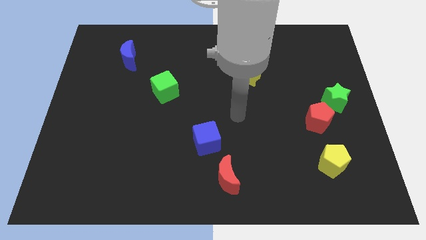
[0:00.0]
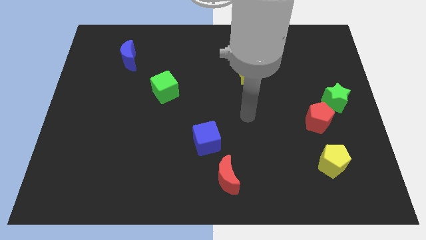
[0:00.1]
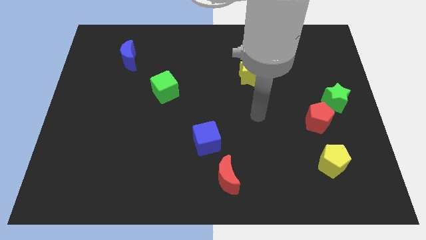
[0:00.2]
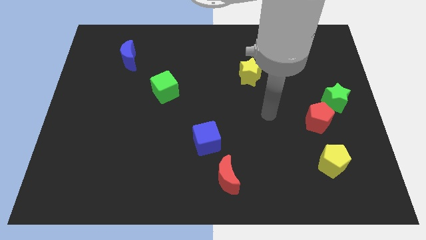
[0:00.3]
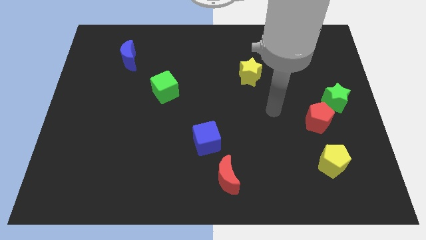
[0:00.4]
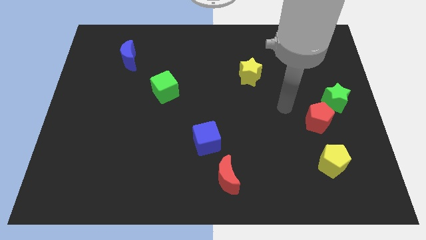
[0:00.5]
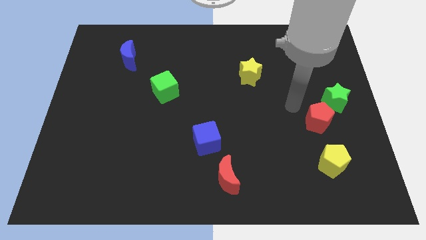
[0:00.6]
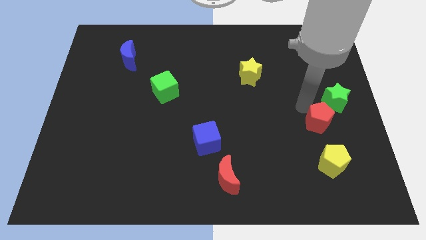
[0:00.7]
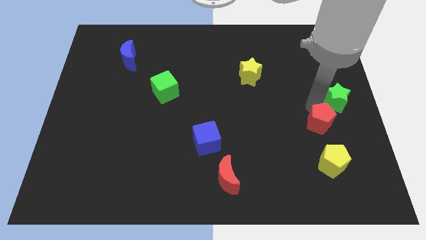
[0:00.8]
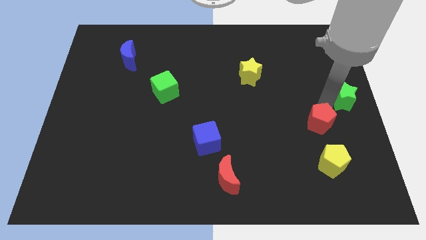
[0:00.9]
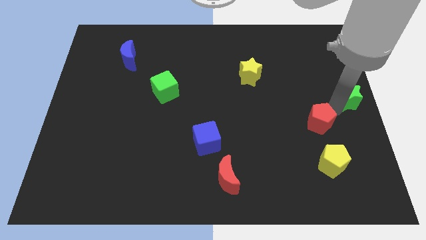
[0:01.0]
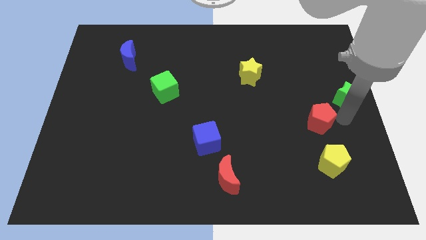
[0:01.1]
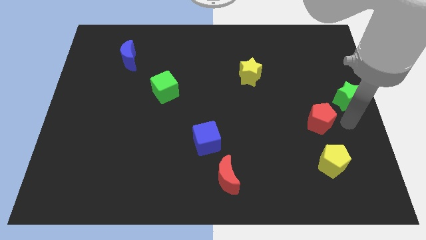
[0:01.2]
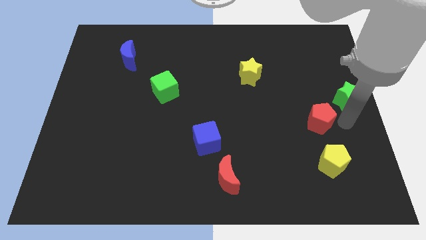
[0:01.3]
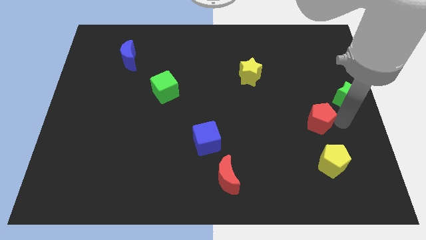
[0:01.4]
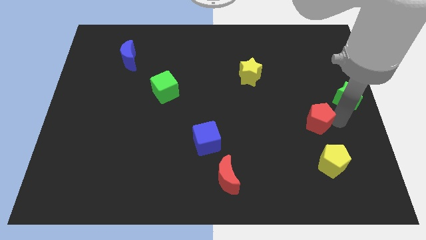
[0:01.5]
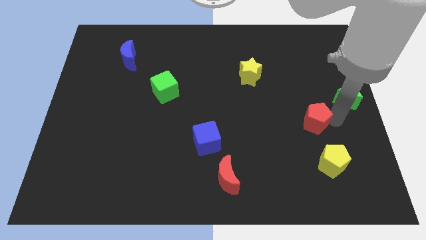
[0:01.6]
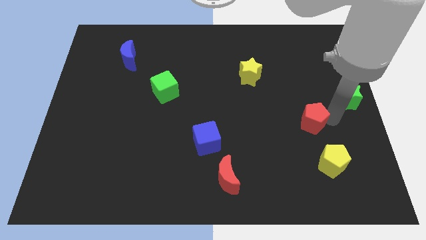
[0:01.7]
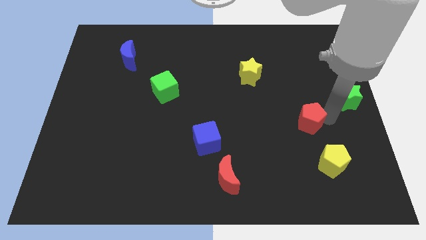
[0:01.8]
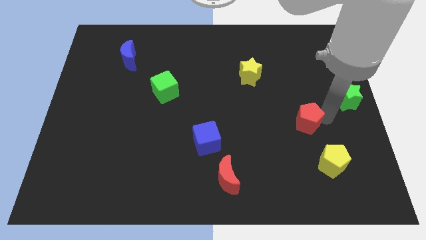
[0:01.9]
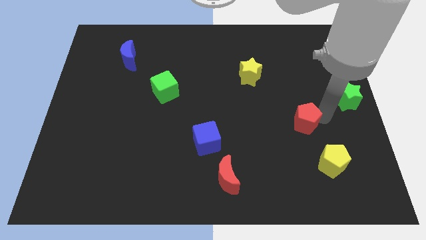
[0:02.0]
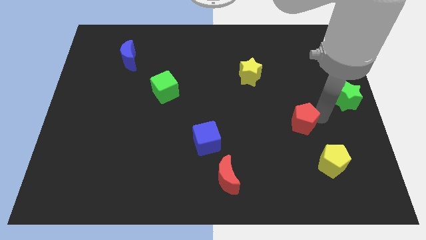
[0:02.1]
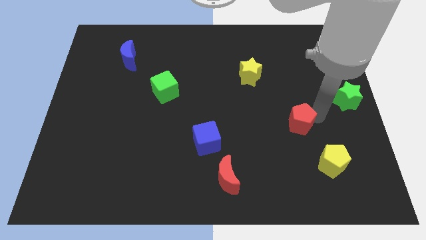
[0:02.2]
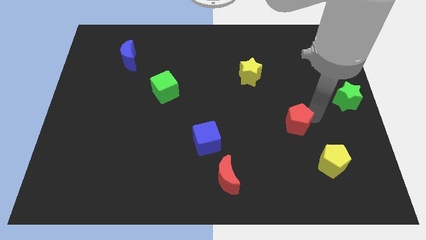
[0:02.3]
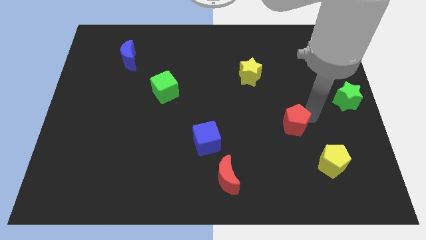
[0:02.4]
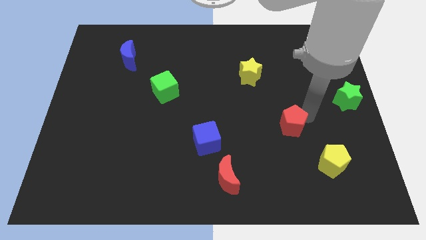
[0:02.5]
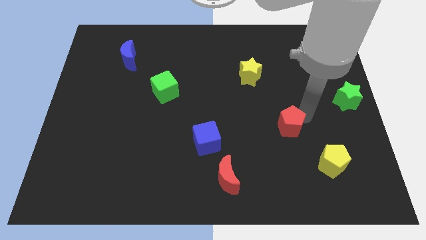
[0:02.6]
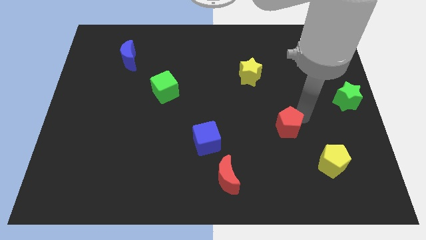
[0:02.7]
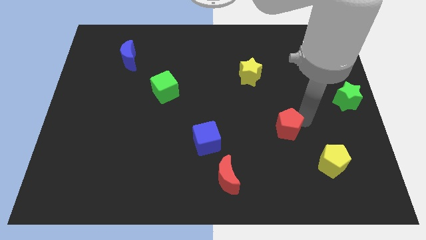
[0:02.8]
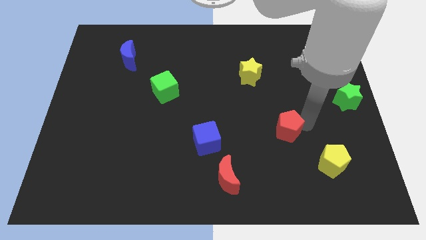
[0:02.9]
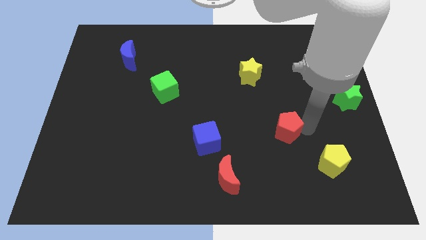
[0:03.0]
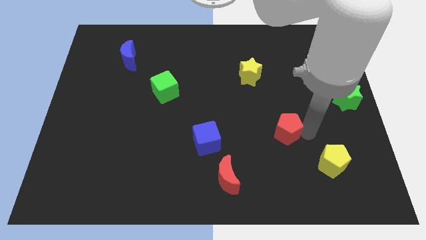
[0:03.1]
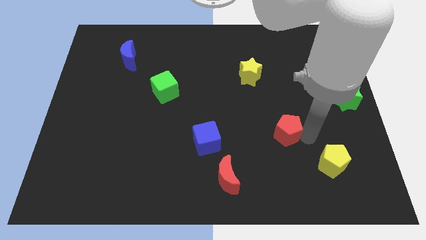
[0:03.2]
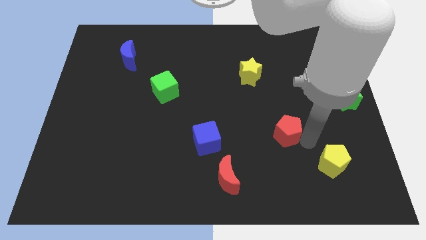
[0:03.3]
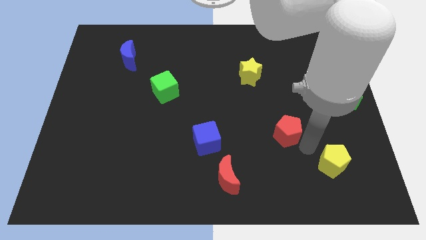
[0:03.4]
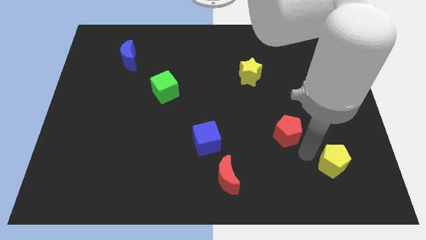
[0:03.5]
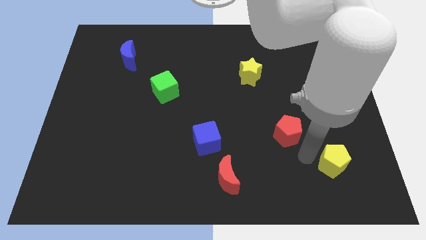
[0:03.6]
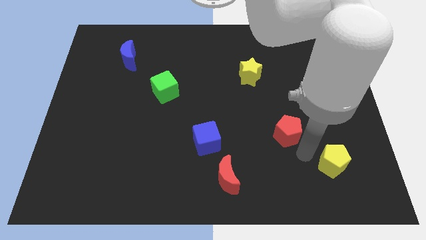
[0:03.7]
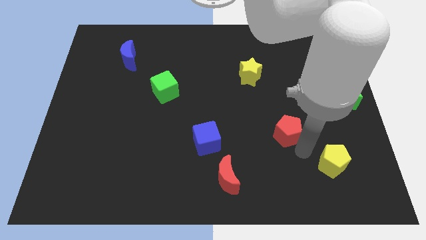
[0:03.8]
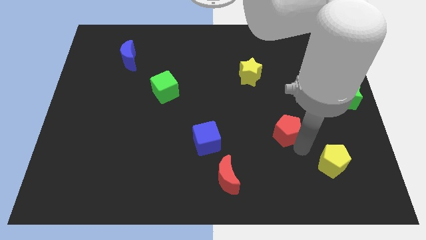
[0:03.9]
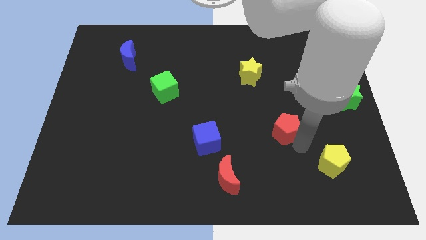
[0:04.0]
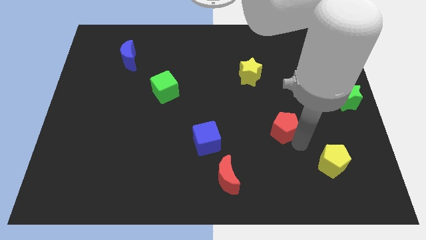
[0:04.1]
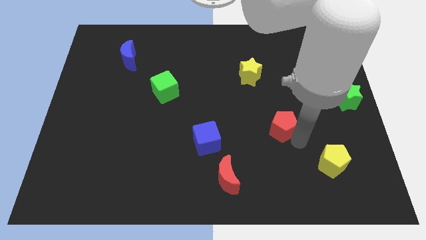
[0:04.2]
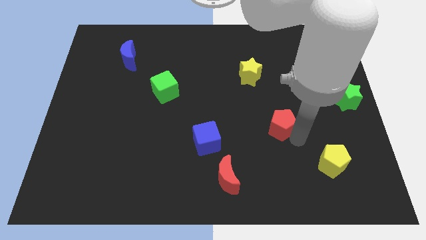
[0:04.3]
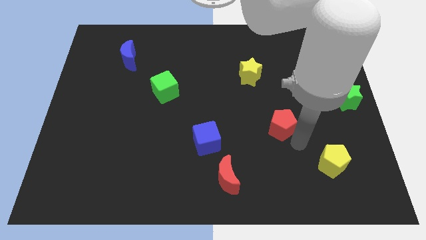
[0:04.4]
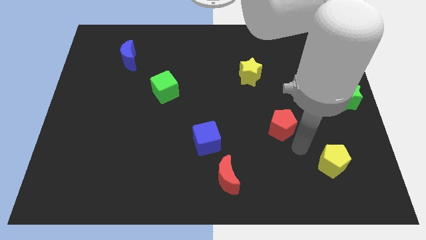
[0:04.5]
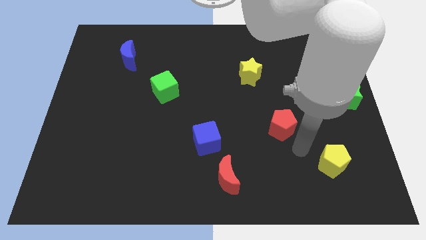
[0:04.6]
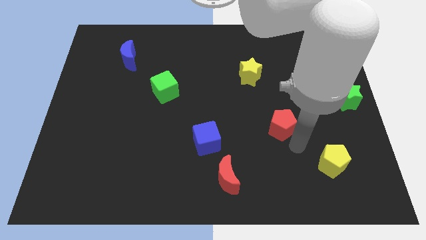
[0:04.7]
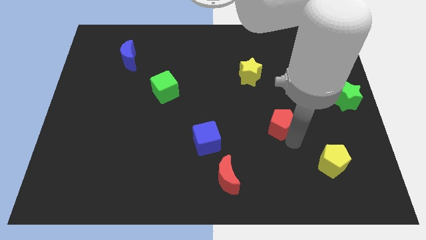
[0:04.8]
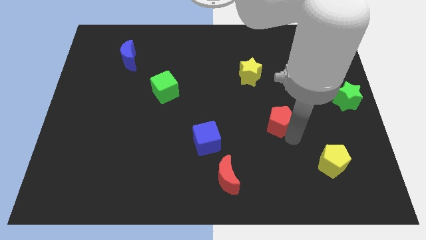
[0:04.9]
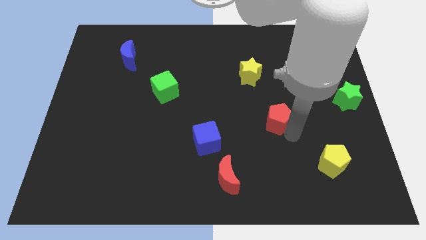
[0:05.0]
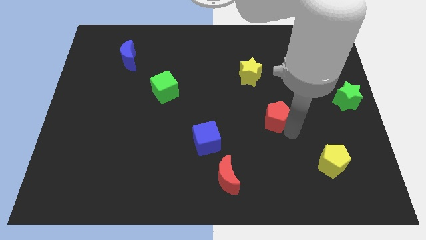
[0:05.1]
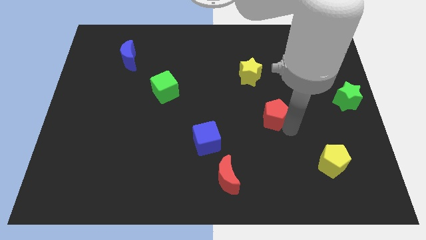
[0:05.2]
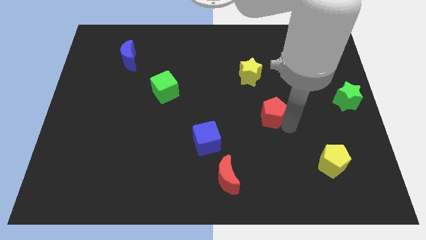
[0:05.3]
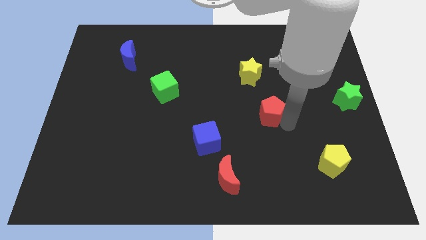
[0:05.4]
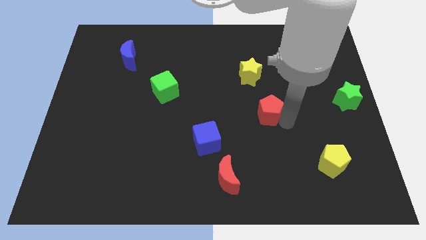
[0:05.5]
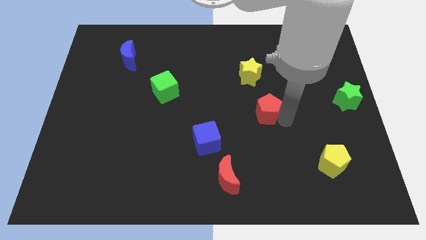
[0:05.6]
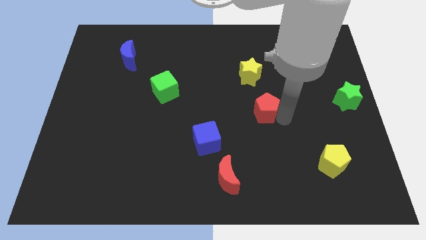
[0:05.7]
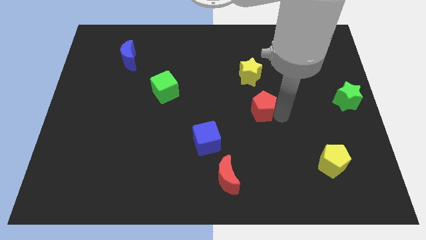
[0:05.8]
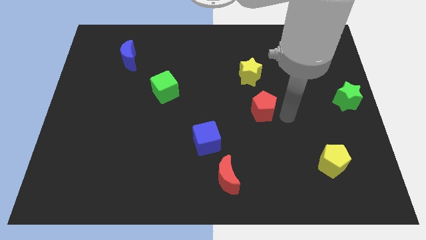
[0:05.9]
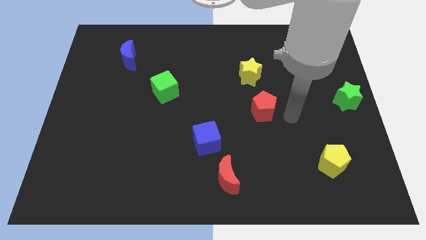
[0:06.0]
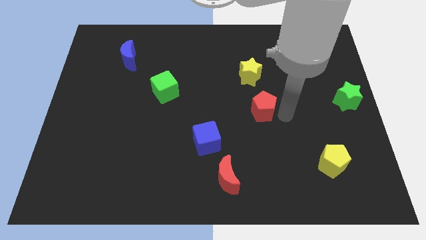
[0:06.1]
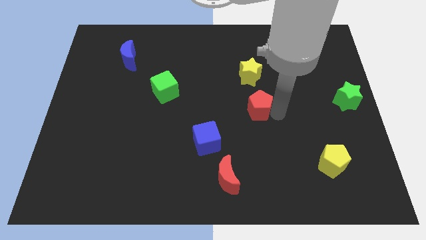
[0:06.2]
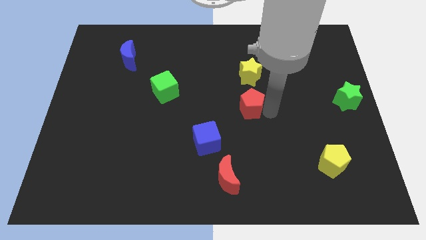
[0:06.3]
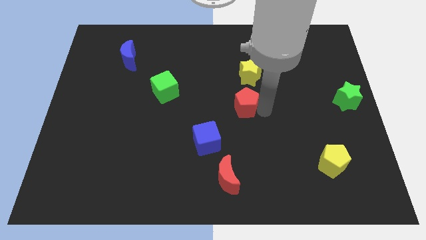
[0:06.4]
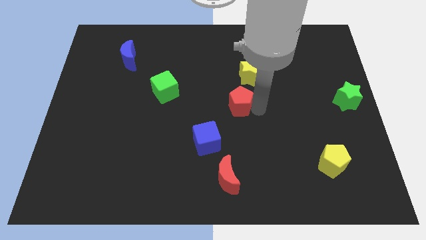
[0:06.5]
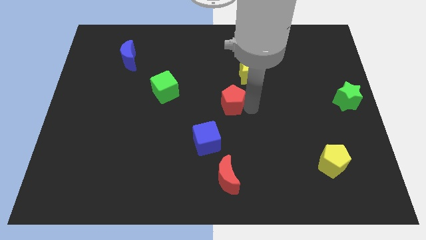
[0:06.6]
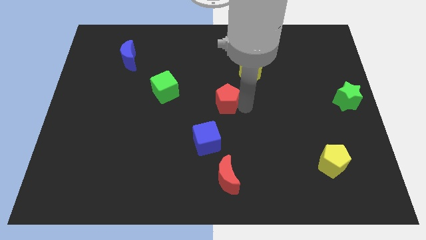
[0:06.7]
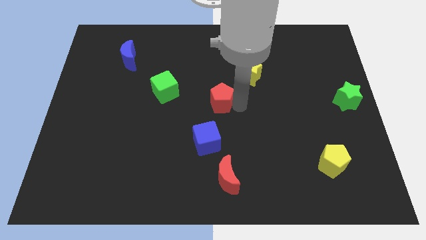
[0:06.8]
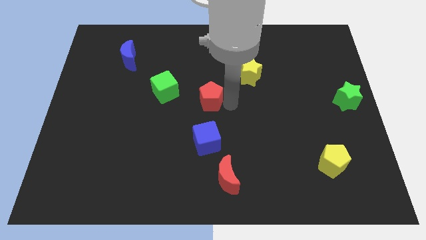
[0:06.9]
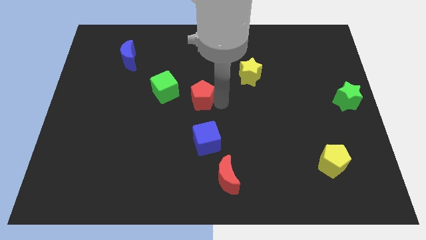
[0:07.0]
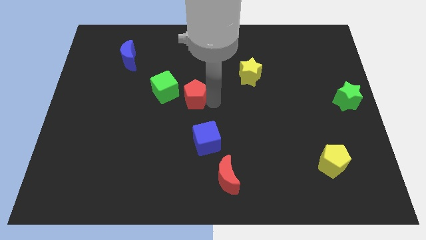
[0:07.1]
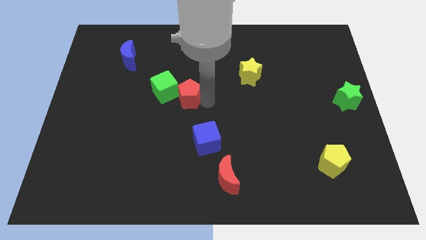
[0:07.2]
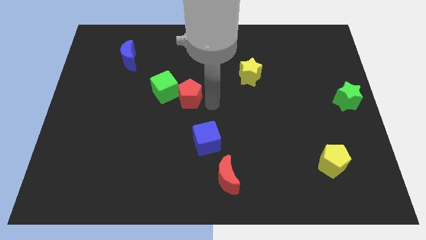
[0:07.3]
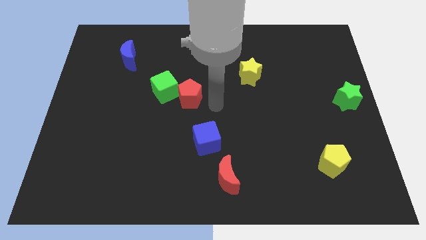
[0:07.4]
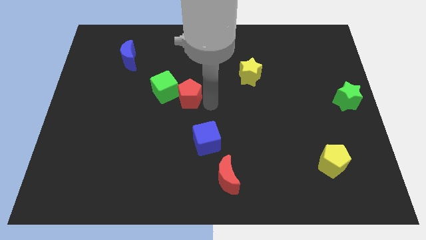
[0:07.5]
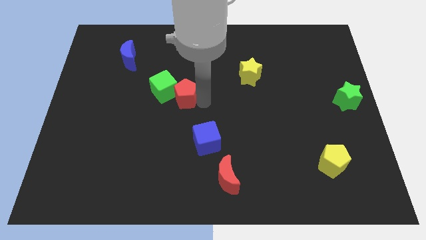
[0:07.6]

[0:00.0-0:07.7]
put the red pentagon to the green cube

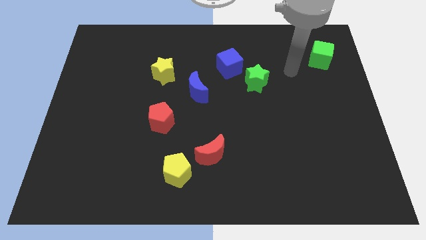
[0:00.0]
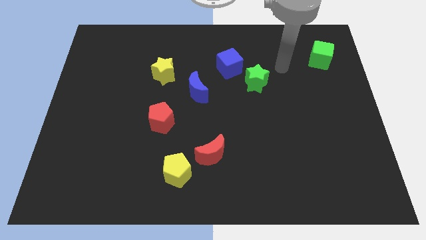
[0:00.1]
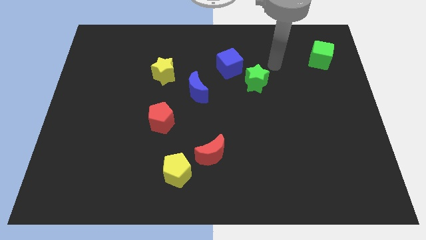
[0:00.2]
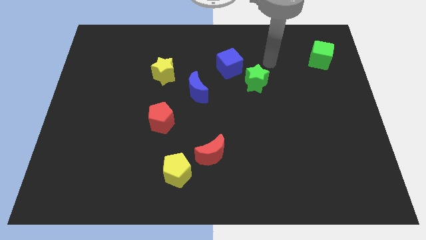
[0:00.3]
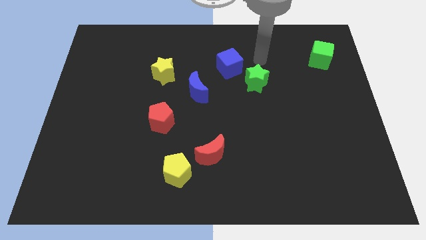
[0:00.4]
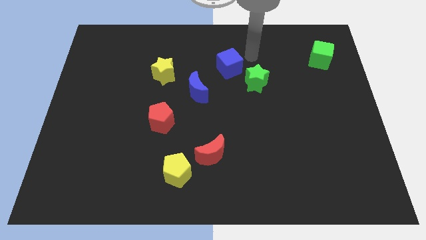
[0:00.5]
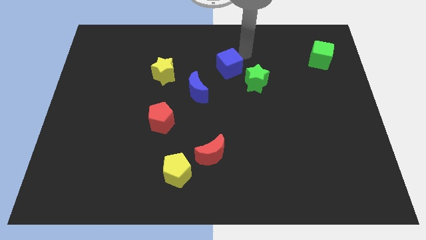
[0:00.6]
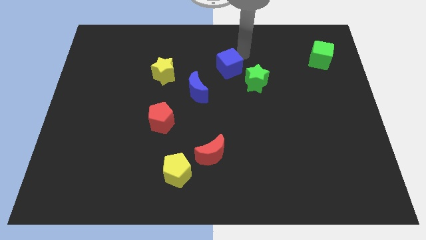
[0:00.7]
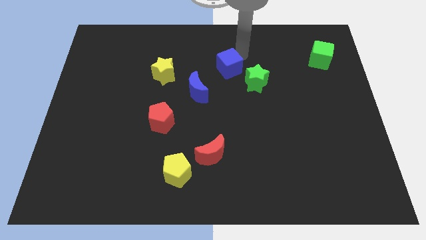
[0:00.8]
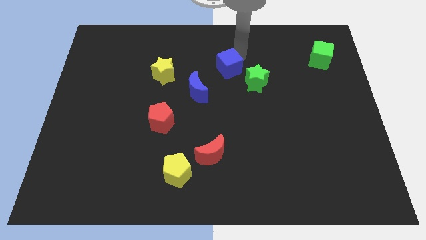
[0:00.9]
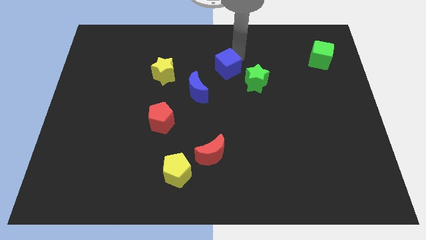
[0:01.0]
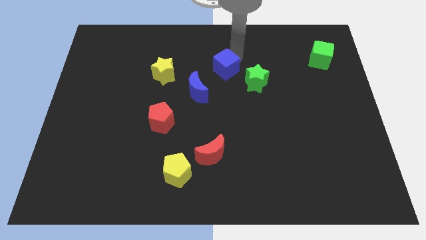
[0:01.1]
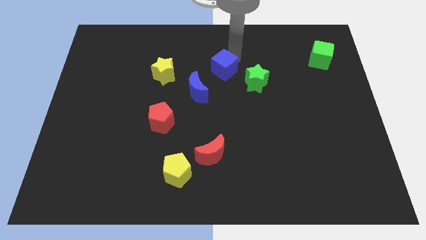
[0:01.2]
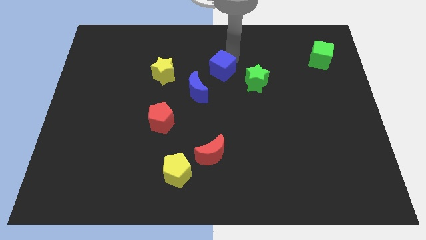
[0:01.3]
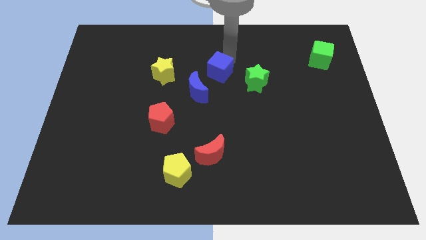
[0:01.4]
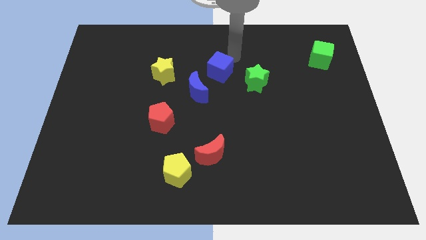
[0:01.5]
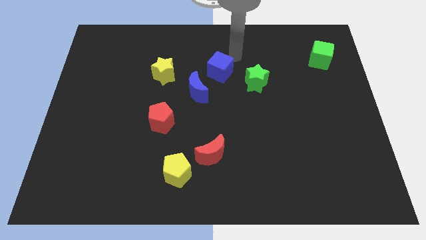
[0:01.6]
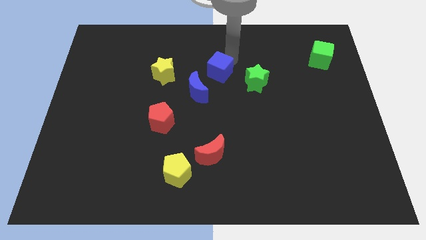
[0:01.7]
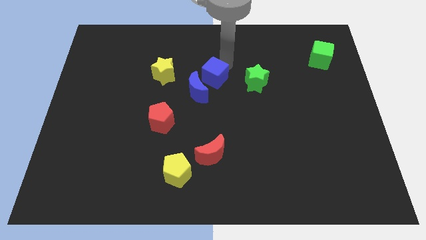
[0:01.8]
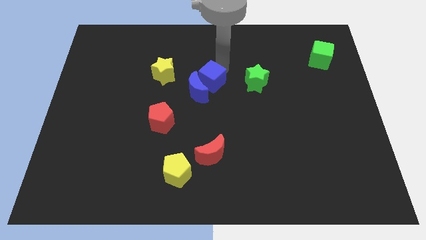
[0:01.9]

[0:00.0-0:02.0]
slide the blue cube towards the blue moon
